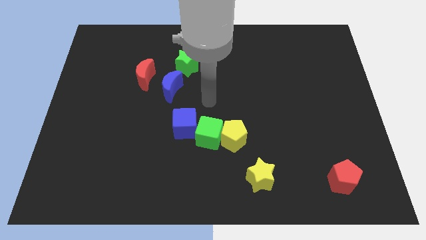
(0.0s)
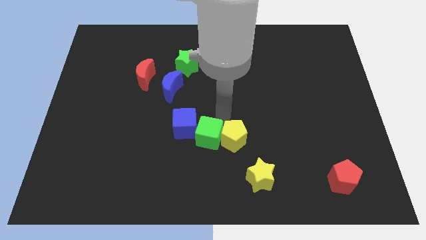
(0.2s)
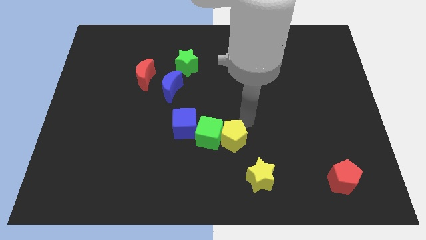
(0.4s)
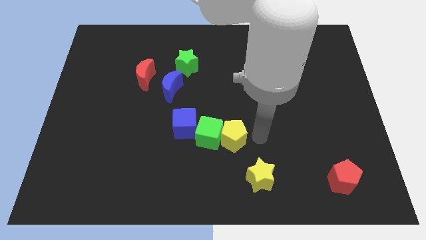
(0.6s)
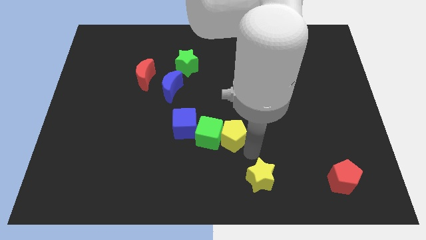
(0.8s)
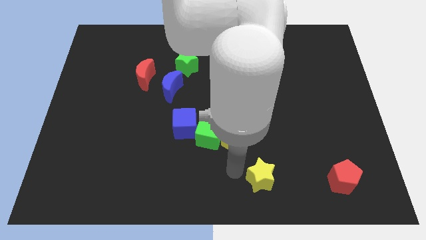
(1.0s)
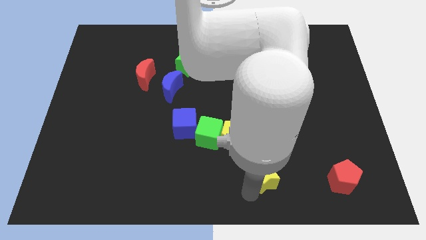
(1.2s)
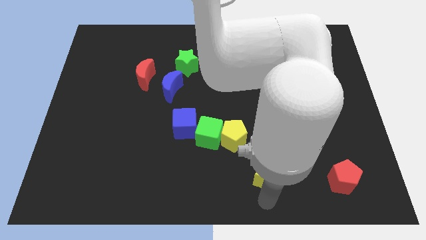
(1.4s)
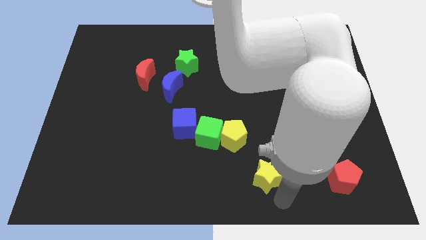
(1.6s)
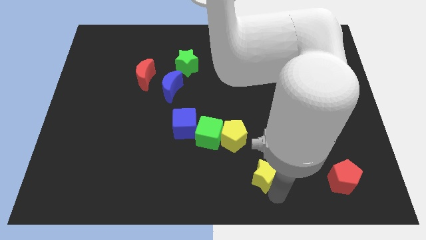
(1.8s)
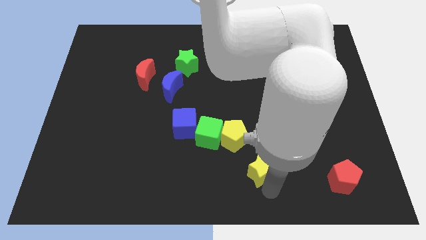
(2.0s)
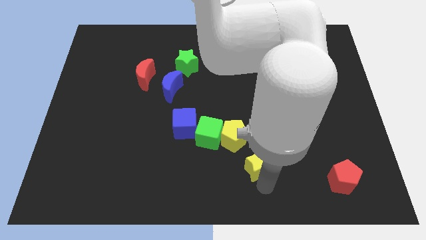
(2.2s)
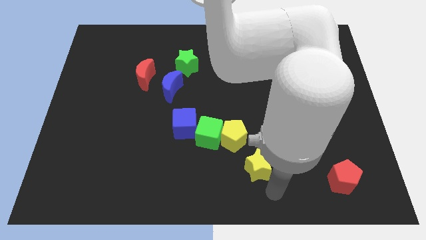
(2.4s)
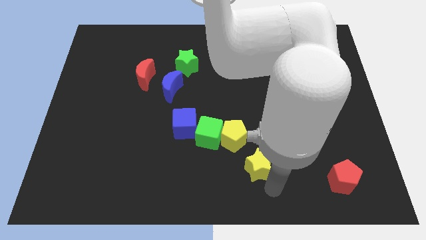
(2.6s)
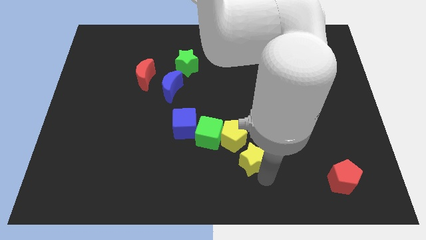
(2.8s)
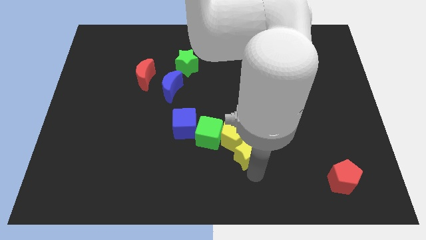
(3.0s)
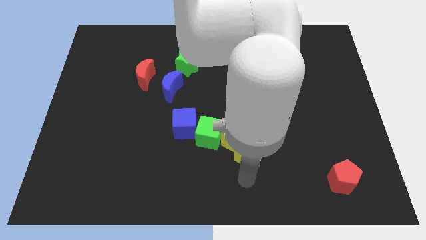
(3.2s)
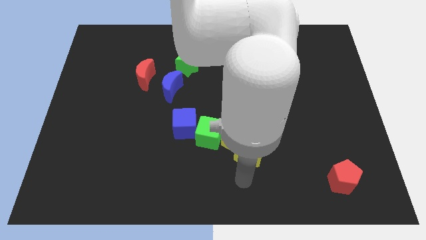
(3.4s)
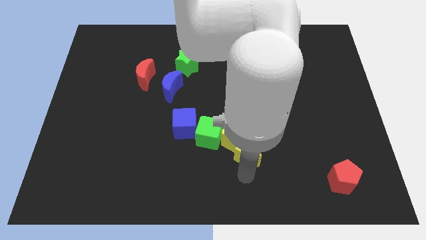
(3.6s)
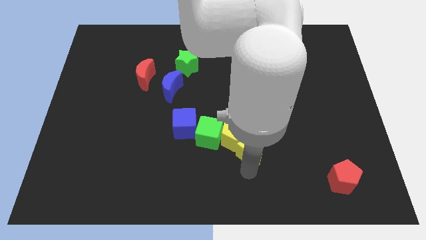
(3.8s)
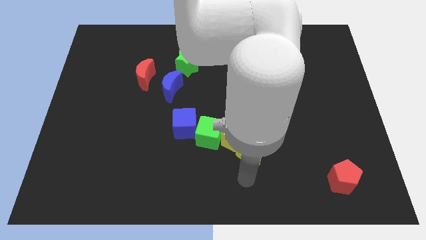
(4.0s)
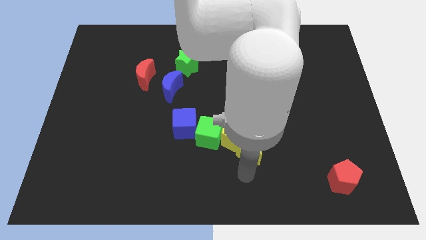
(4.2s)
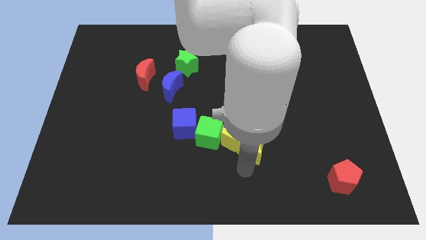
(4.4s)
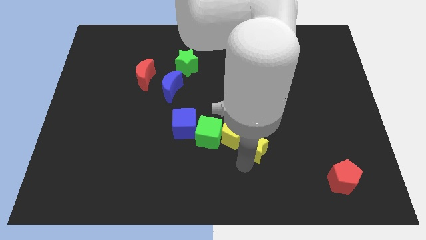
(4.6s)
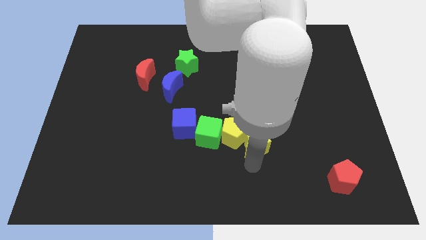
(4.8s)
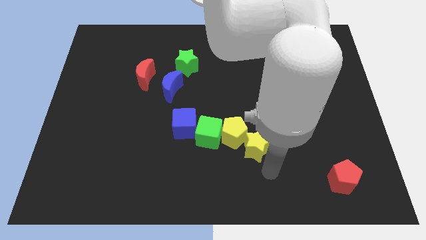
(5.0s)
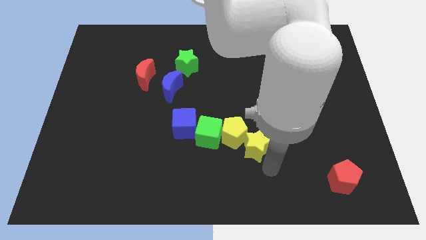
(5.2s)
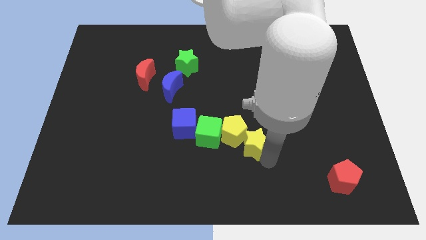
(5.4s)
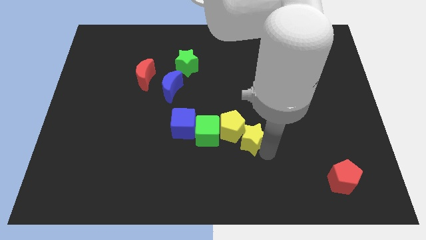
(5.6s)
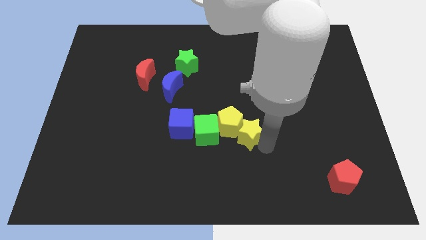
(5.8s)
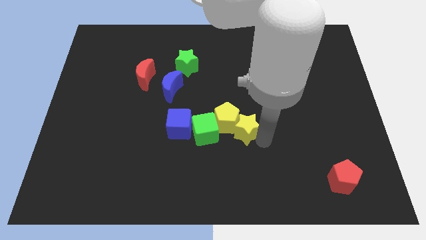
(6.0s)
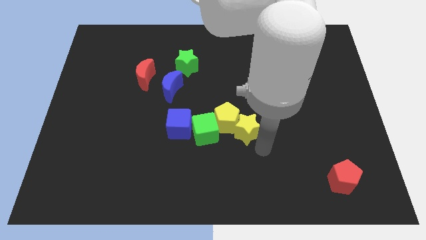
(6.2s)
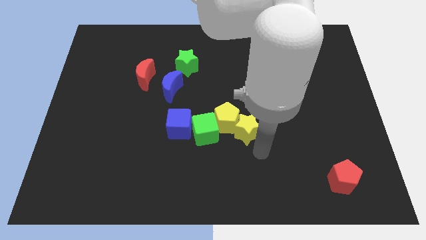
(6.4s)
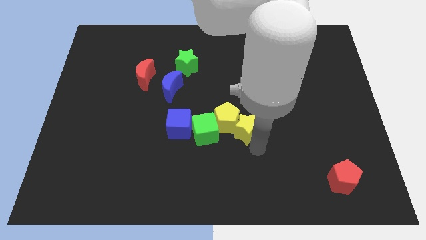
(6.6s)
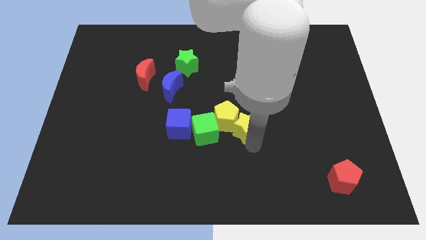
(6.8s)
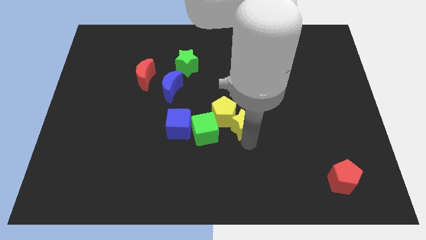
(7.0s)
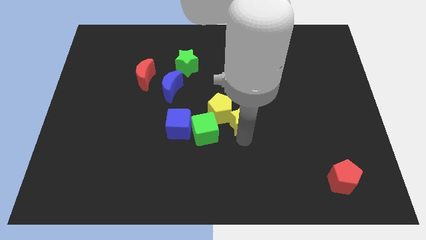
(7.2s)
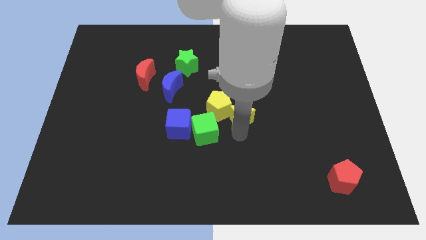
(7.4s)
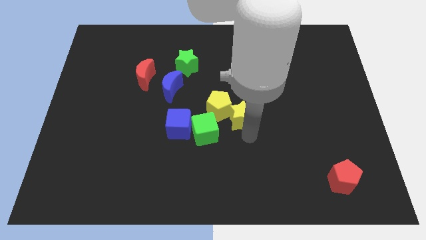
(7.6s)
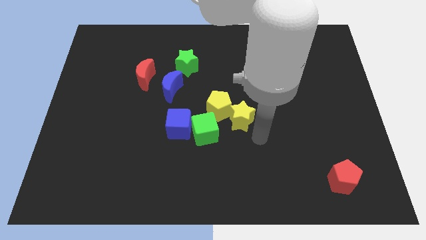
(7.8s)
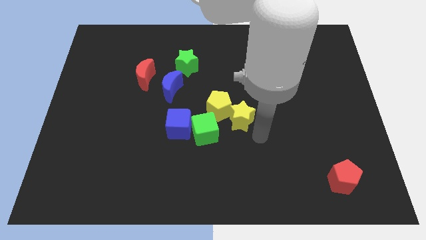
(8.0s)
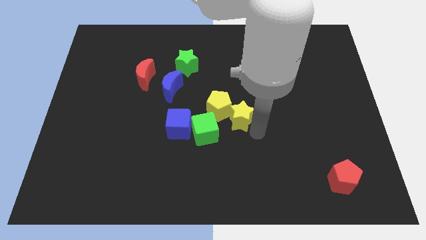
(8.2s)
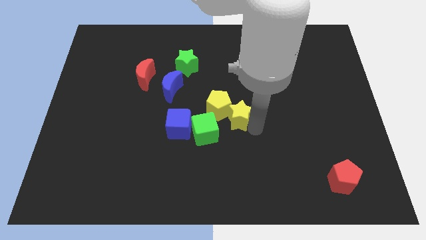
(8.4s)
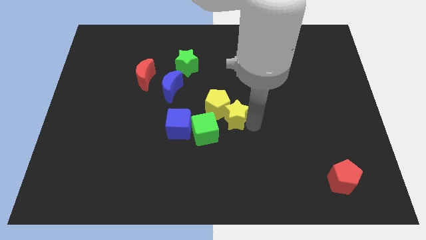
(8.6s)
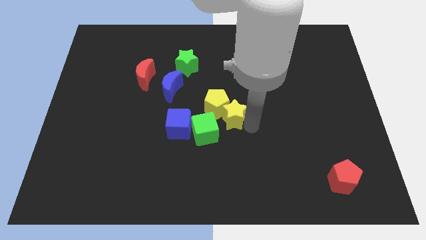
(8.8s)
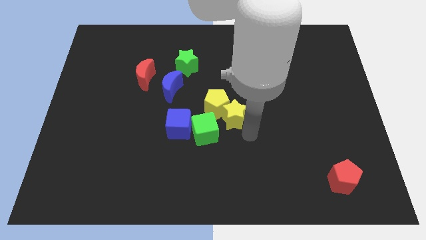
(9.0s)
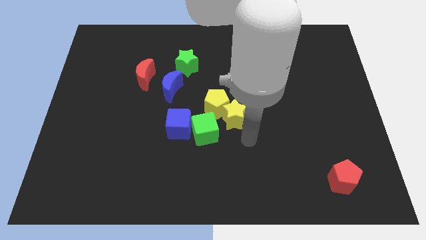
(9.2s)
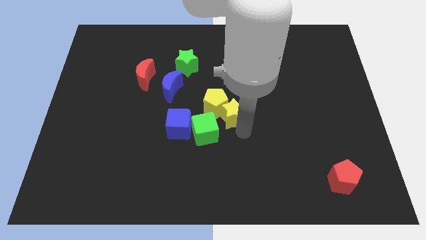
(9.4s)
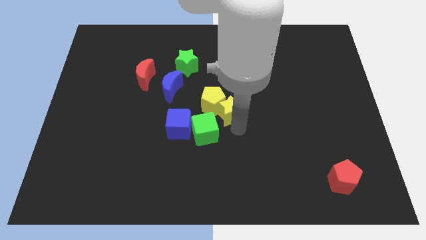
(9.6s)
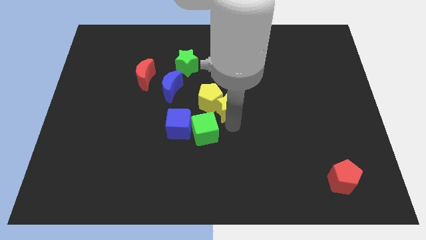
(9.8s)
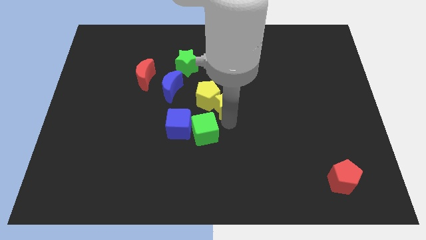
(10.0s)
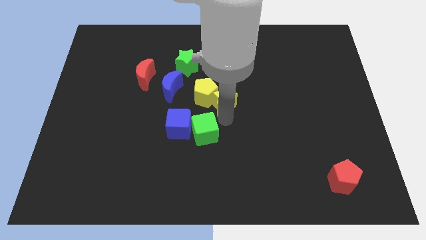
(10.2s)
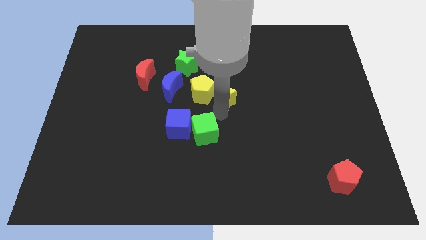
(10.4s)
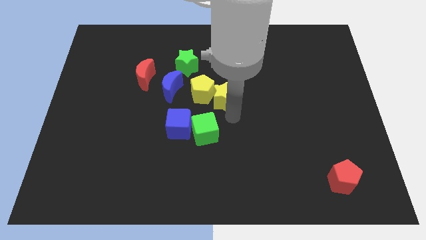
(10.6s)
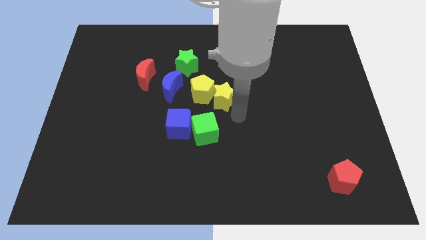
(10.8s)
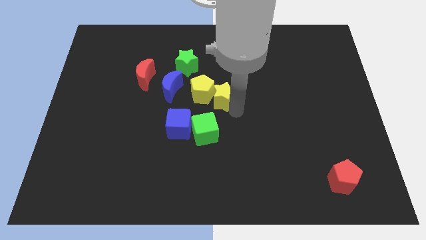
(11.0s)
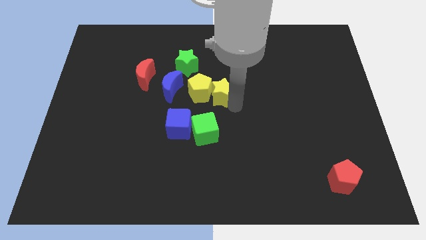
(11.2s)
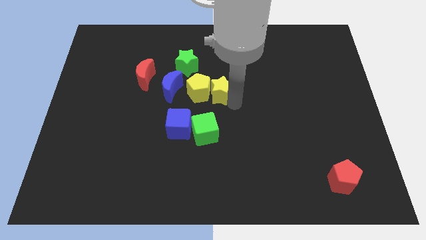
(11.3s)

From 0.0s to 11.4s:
put the yellow star to the bottom right side of the green star

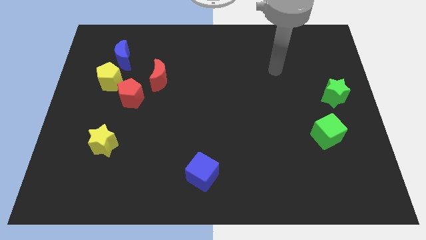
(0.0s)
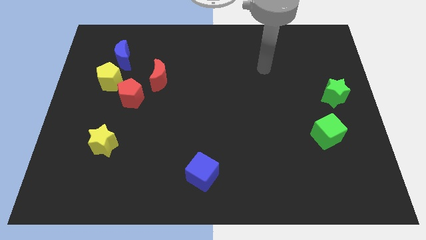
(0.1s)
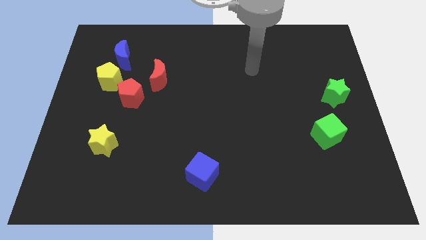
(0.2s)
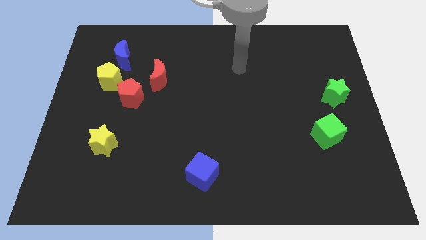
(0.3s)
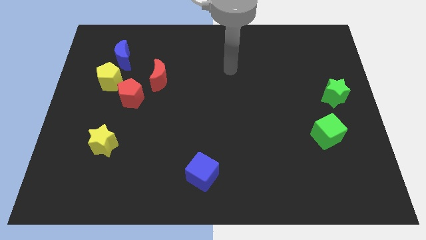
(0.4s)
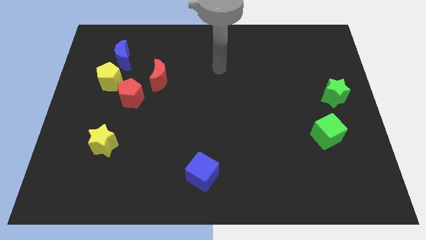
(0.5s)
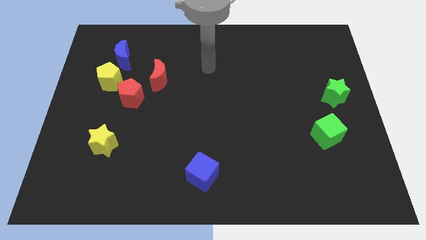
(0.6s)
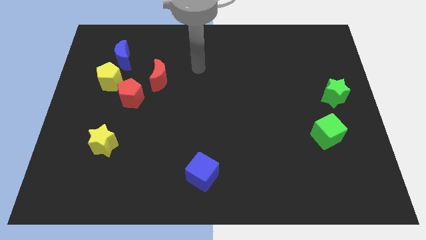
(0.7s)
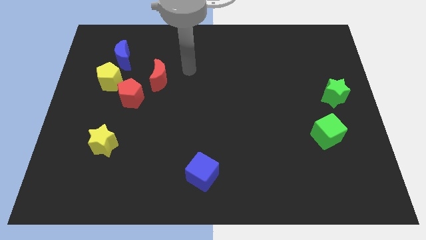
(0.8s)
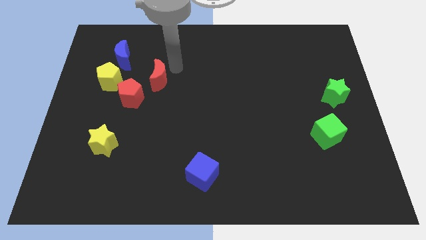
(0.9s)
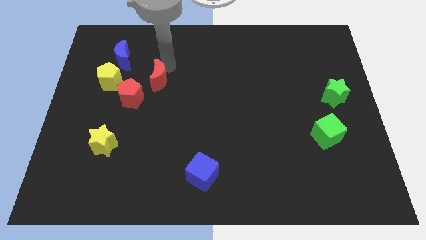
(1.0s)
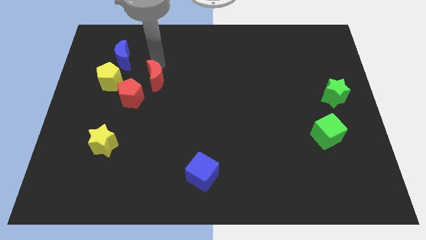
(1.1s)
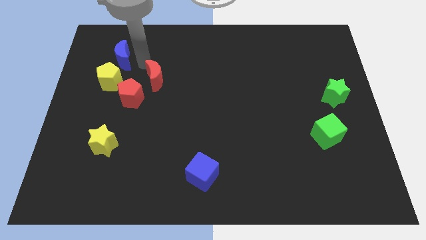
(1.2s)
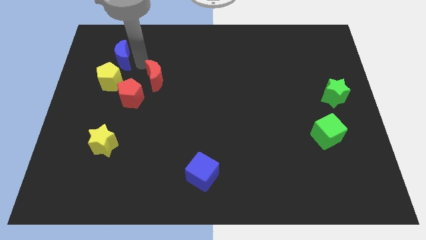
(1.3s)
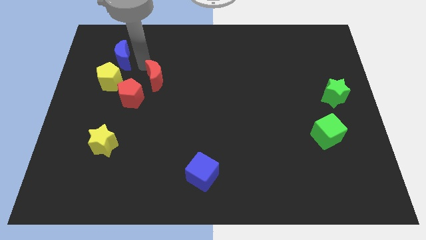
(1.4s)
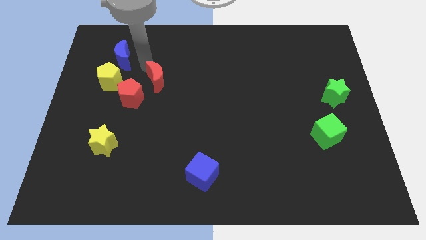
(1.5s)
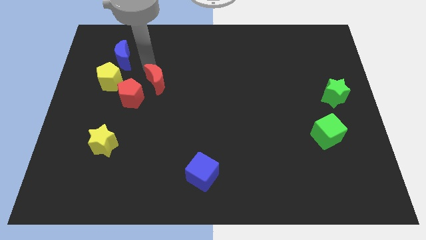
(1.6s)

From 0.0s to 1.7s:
put the red moon to the right side of the red pentagon
